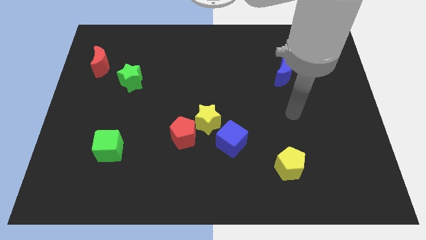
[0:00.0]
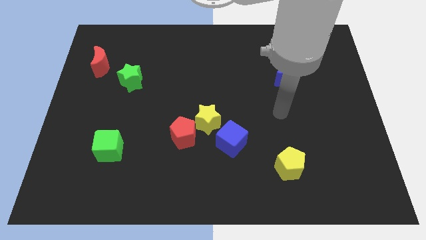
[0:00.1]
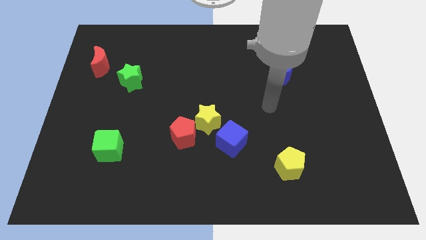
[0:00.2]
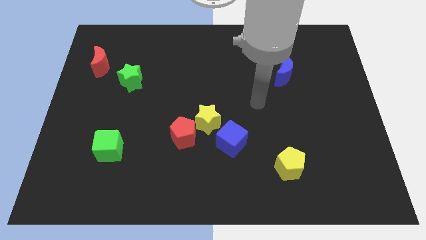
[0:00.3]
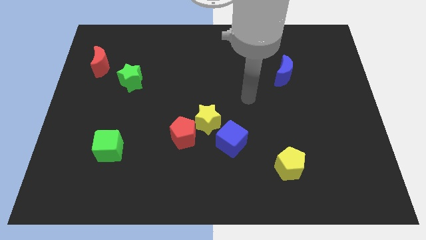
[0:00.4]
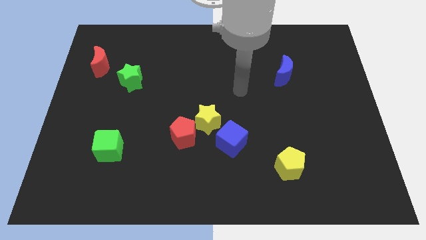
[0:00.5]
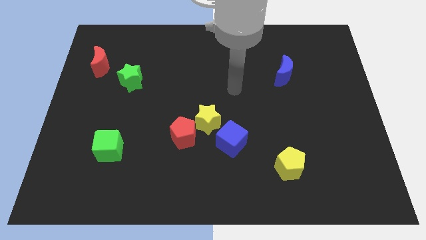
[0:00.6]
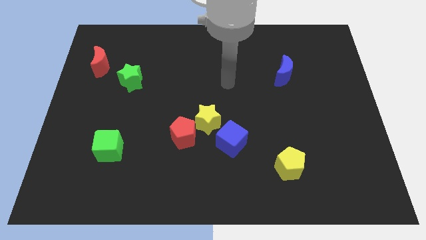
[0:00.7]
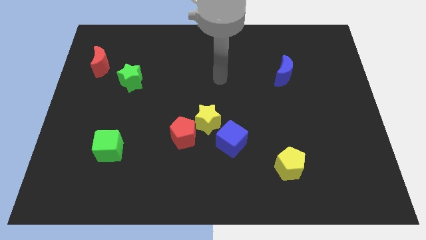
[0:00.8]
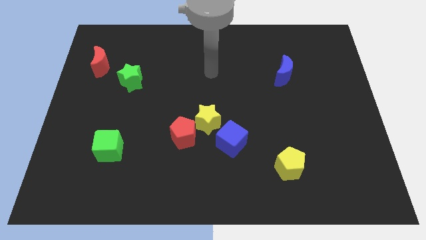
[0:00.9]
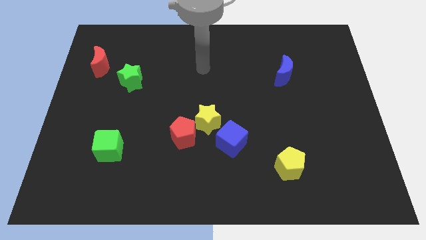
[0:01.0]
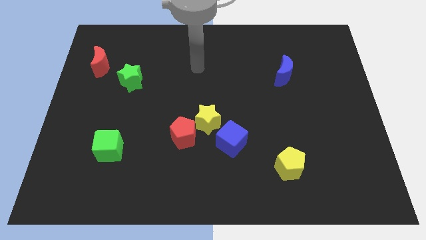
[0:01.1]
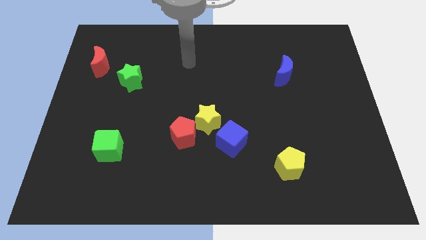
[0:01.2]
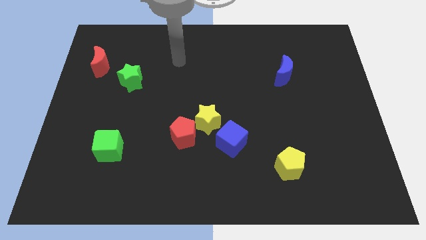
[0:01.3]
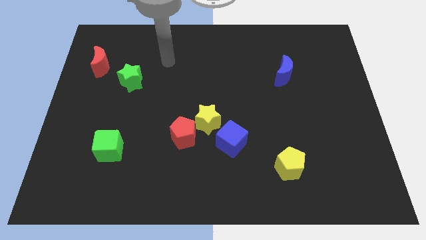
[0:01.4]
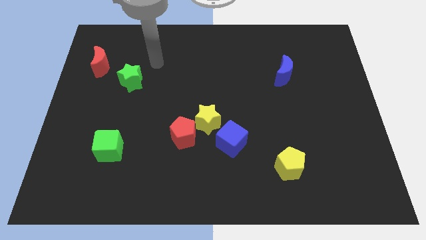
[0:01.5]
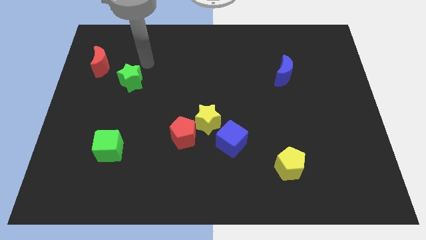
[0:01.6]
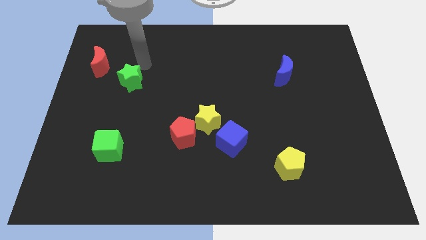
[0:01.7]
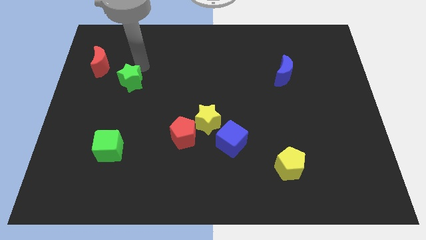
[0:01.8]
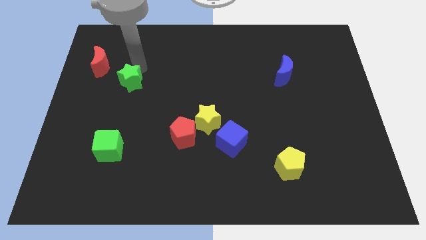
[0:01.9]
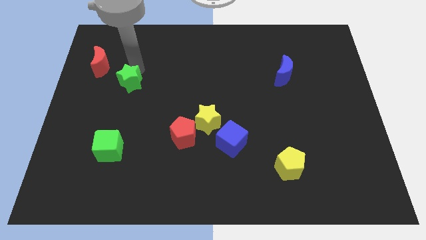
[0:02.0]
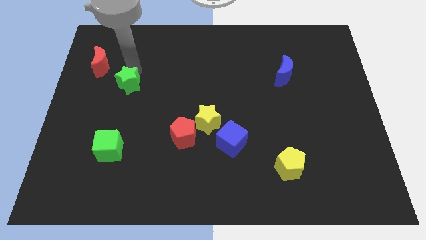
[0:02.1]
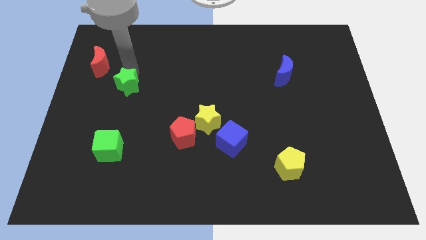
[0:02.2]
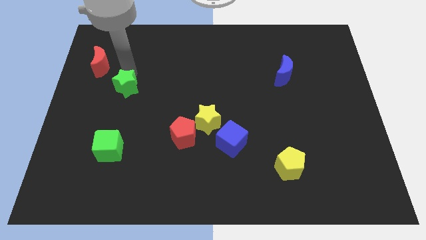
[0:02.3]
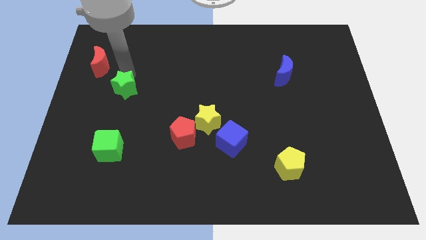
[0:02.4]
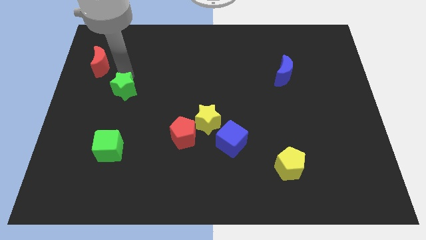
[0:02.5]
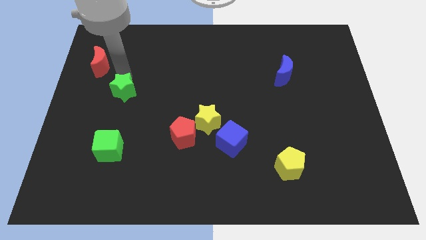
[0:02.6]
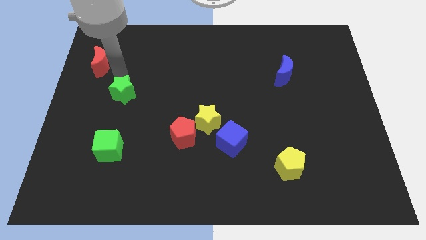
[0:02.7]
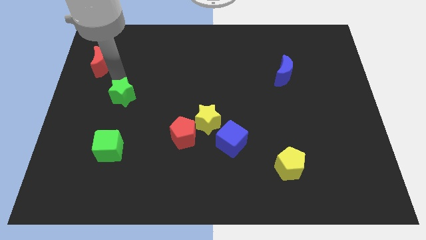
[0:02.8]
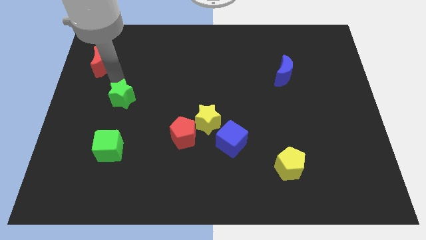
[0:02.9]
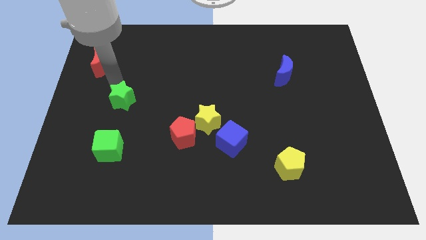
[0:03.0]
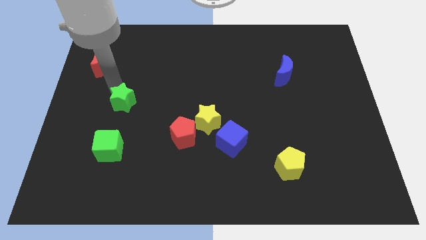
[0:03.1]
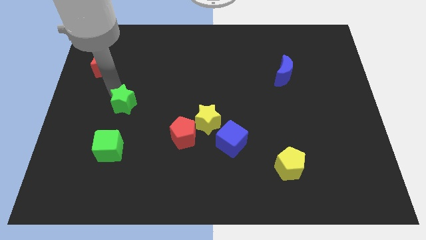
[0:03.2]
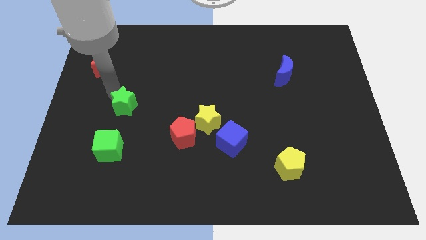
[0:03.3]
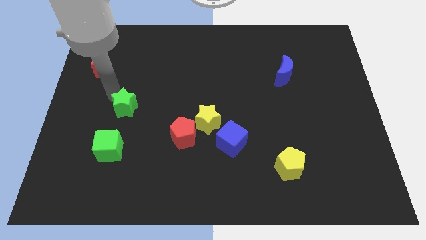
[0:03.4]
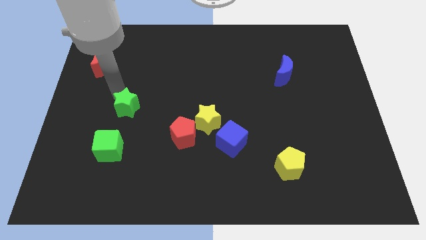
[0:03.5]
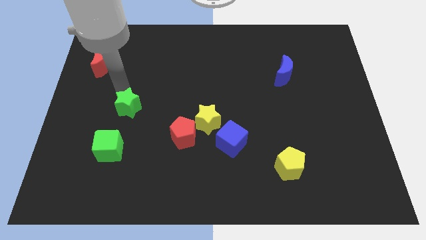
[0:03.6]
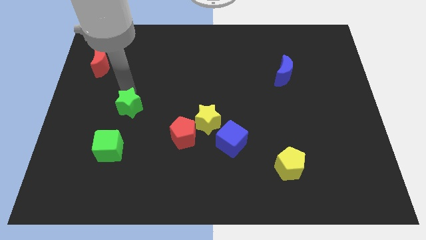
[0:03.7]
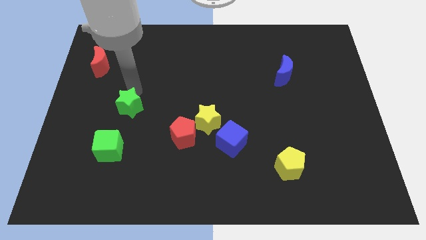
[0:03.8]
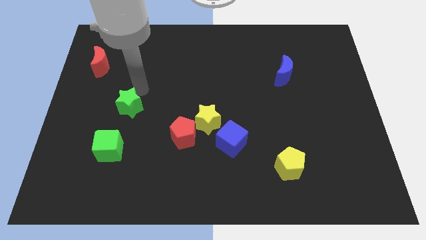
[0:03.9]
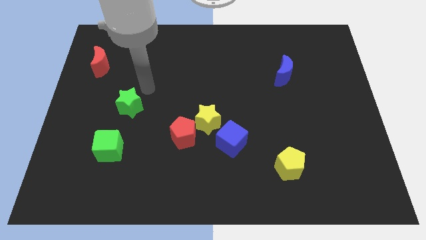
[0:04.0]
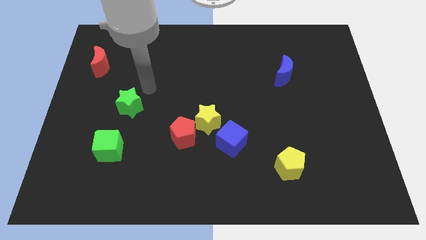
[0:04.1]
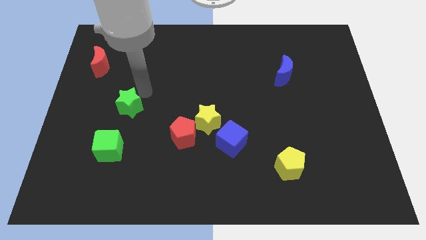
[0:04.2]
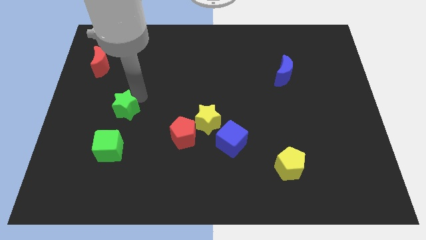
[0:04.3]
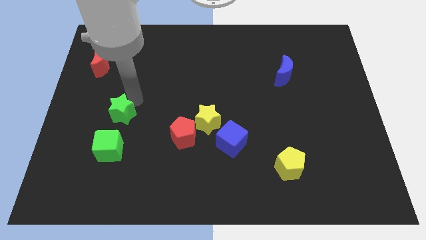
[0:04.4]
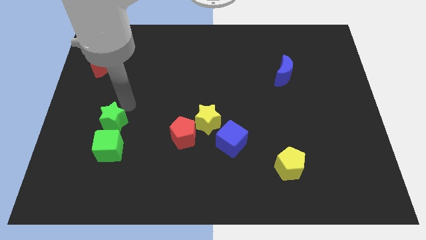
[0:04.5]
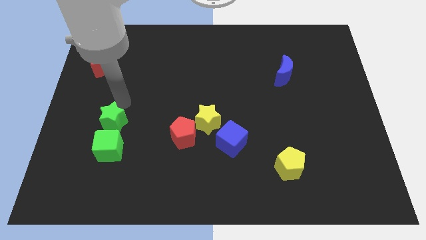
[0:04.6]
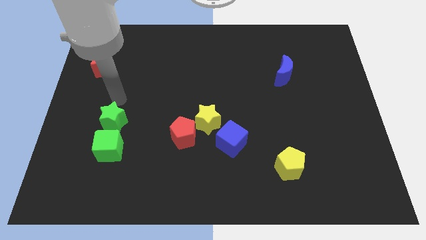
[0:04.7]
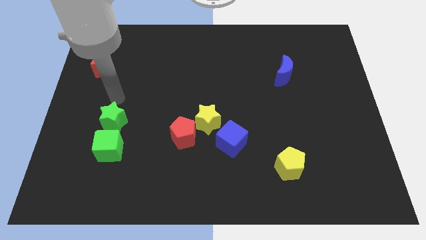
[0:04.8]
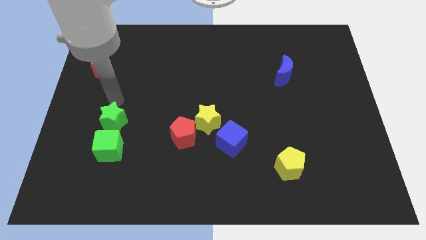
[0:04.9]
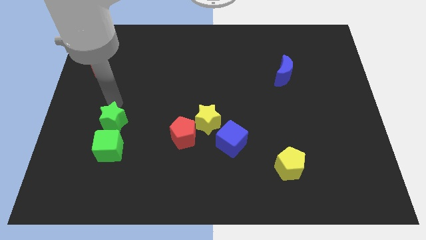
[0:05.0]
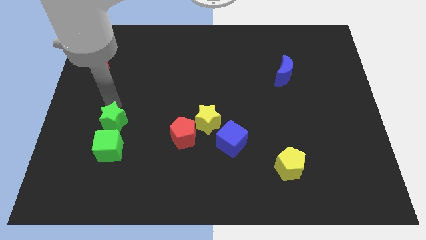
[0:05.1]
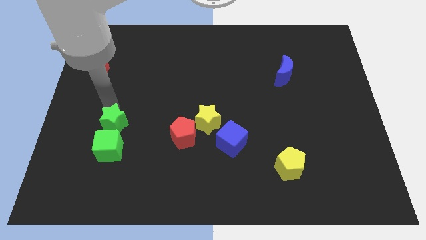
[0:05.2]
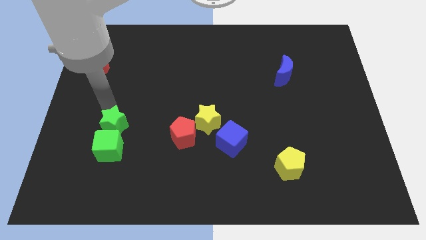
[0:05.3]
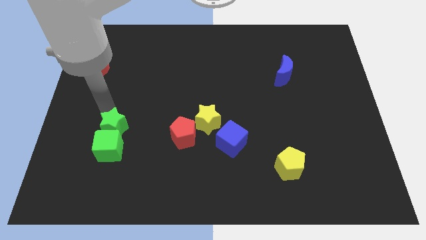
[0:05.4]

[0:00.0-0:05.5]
put the green star close to the green cube

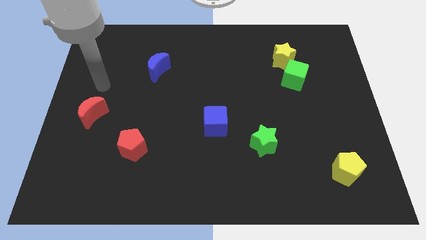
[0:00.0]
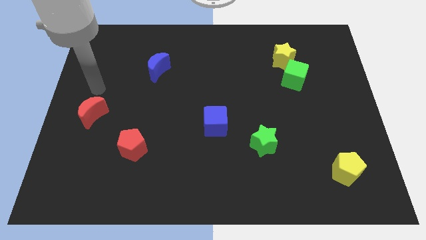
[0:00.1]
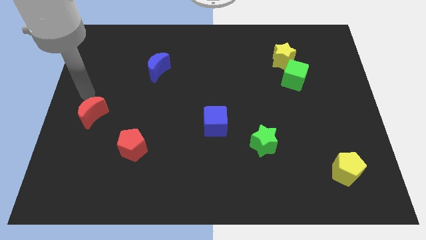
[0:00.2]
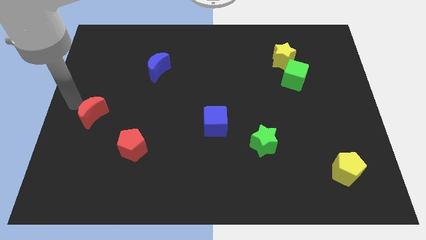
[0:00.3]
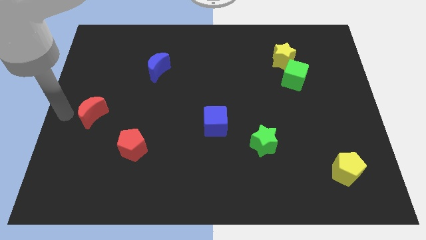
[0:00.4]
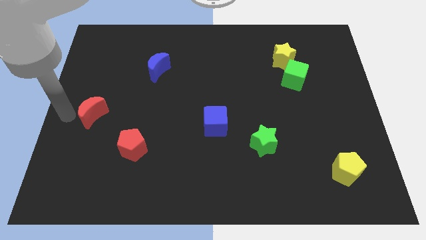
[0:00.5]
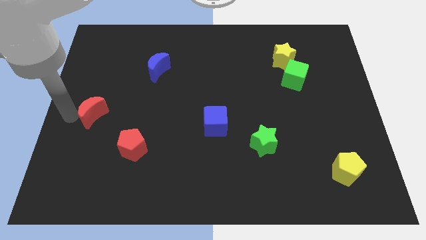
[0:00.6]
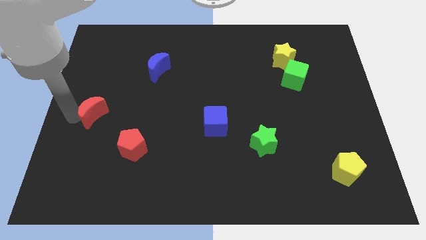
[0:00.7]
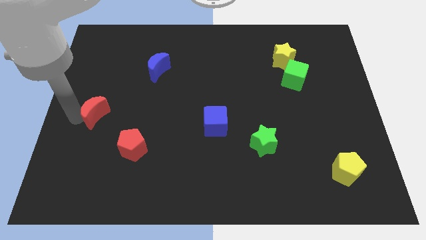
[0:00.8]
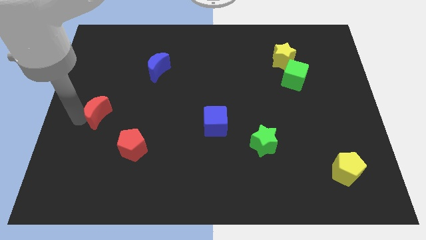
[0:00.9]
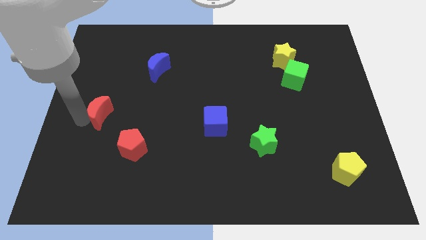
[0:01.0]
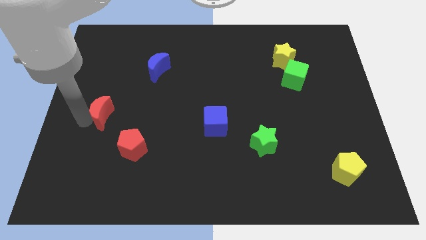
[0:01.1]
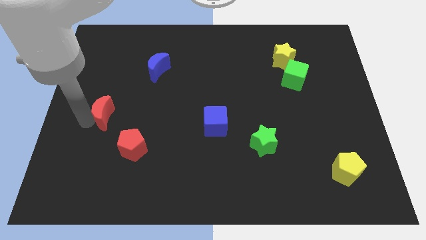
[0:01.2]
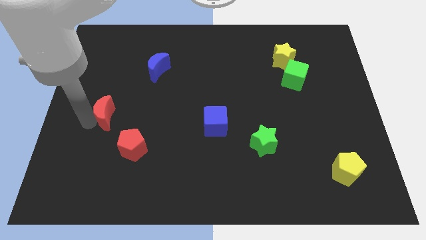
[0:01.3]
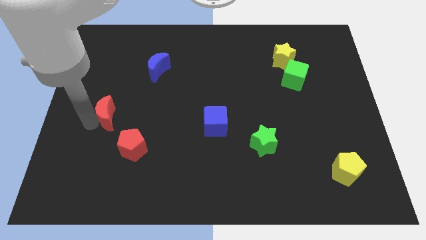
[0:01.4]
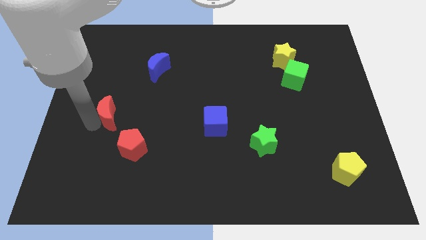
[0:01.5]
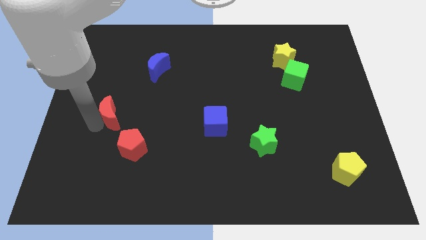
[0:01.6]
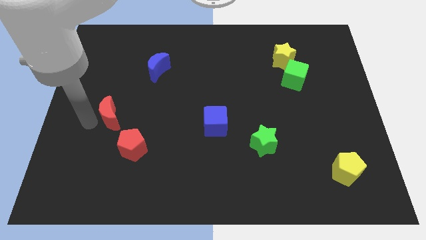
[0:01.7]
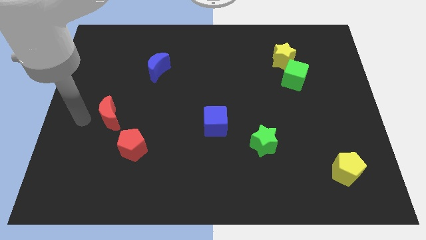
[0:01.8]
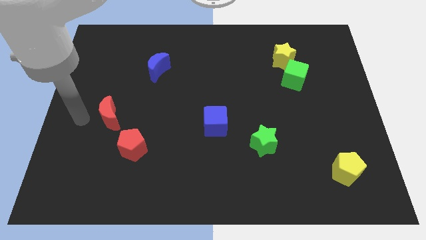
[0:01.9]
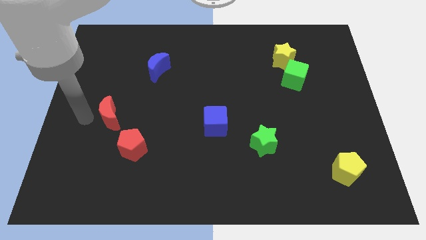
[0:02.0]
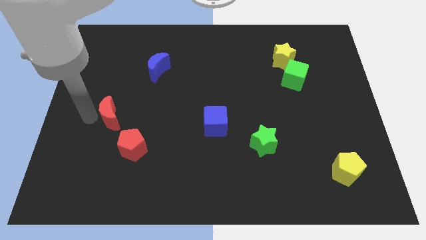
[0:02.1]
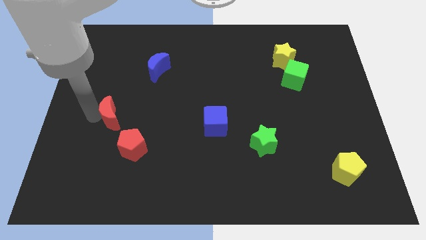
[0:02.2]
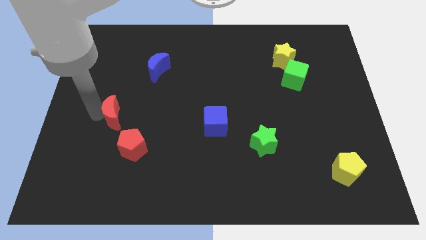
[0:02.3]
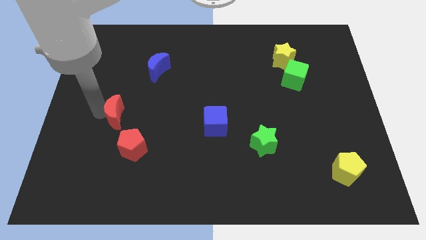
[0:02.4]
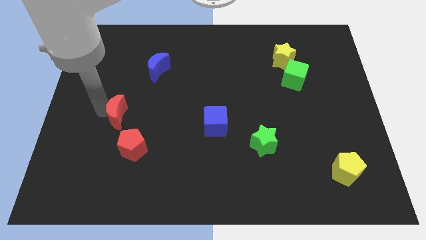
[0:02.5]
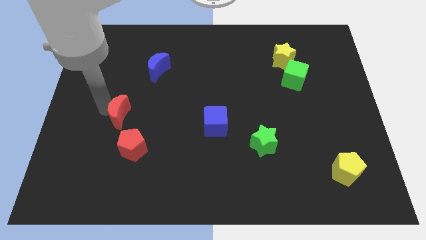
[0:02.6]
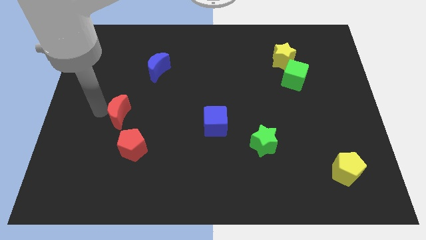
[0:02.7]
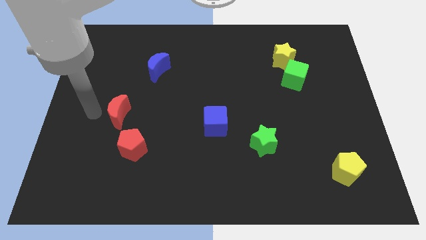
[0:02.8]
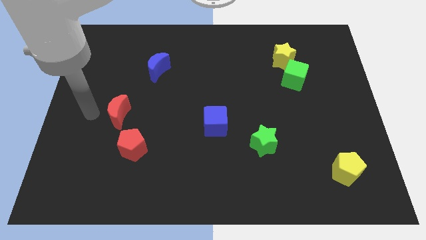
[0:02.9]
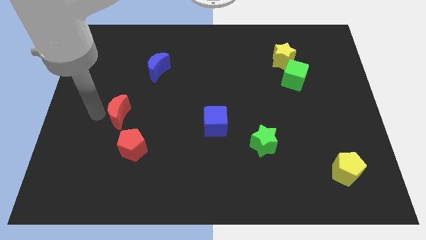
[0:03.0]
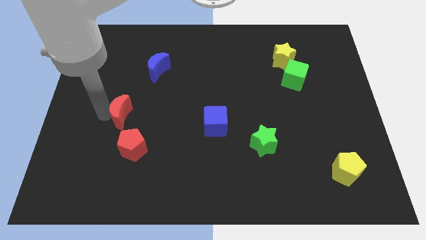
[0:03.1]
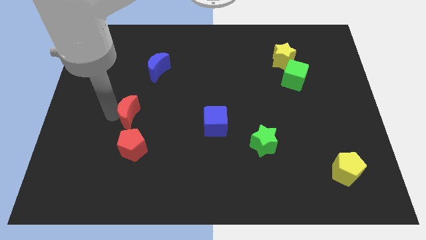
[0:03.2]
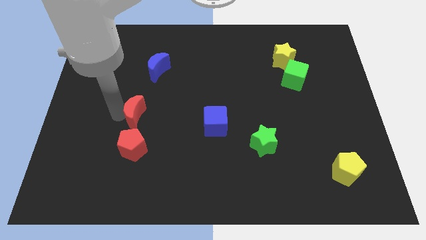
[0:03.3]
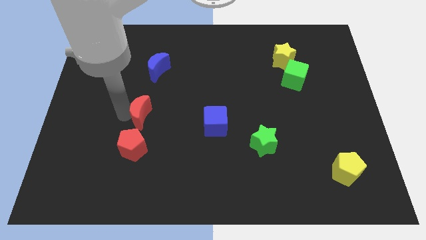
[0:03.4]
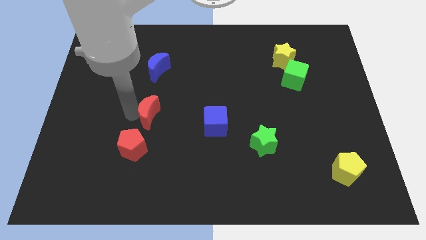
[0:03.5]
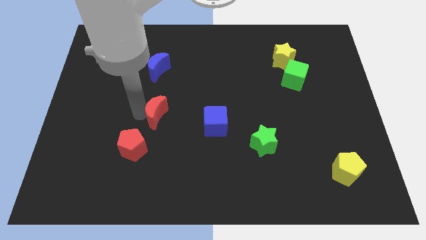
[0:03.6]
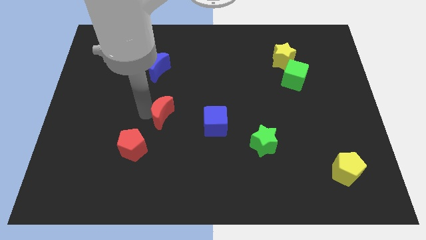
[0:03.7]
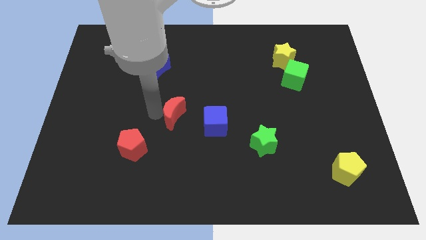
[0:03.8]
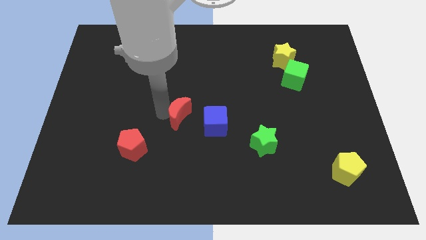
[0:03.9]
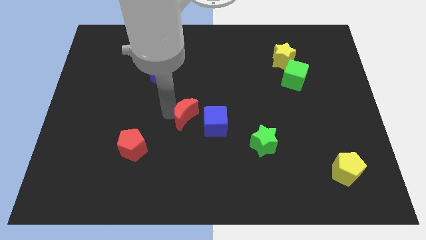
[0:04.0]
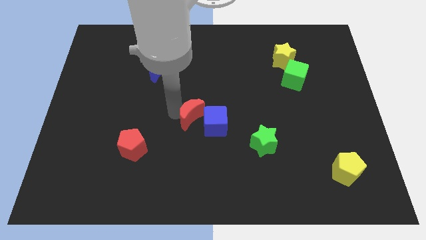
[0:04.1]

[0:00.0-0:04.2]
push the red moon next to the blue cube
